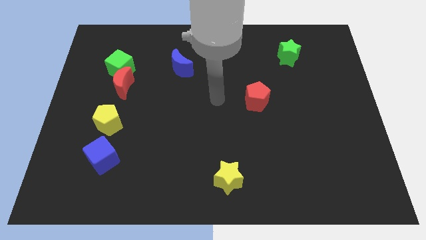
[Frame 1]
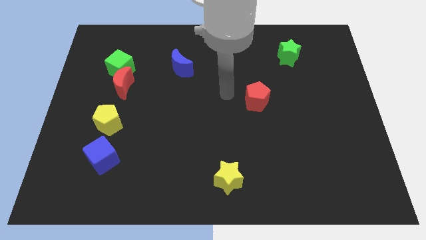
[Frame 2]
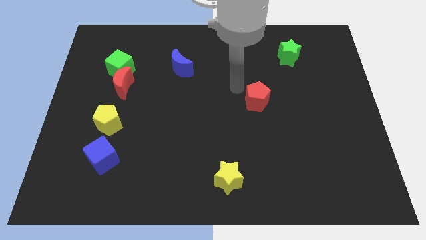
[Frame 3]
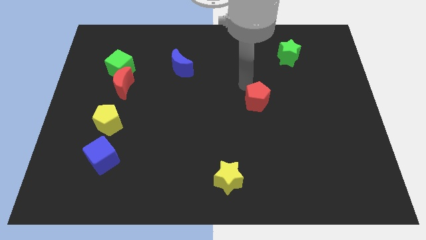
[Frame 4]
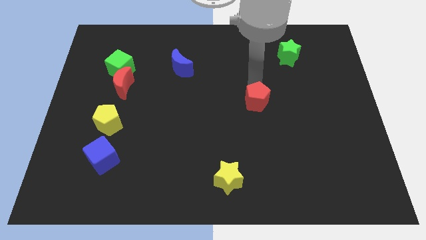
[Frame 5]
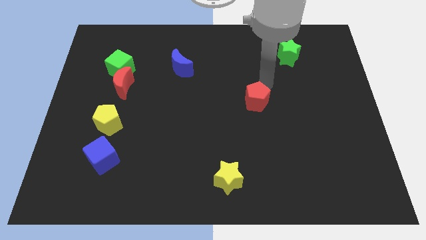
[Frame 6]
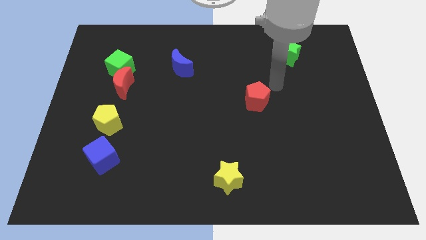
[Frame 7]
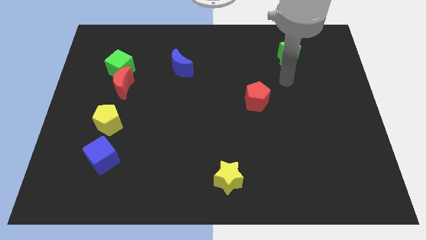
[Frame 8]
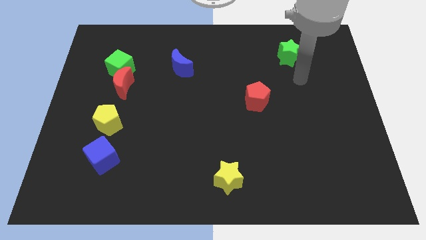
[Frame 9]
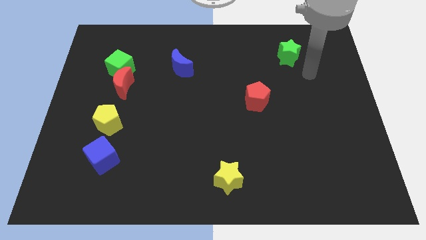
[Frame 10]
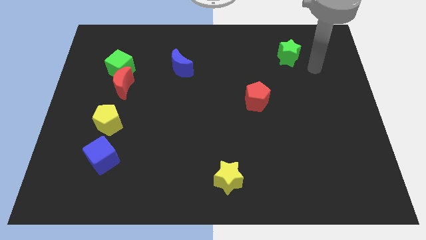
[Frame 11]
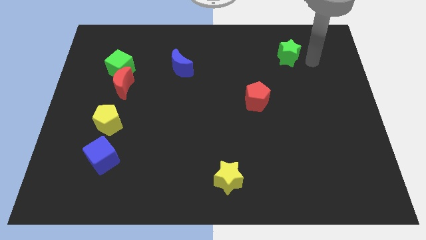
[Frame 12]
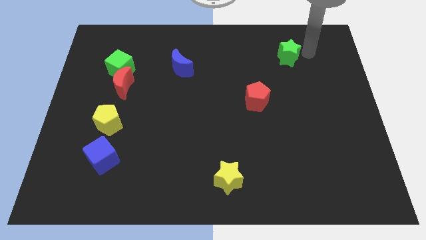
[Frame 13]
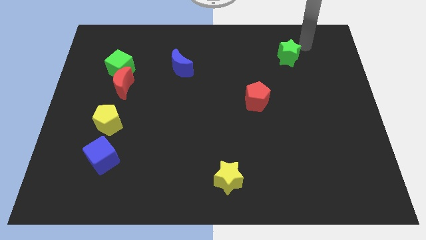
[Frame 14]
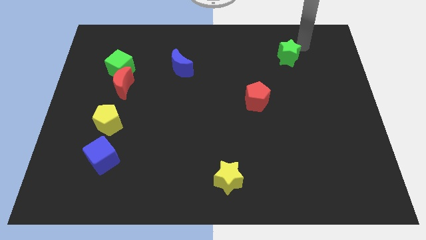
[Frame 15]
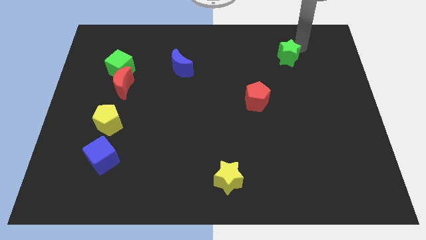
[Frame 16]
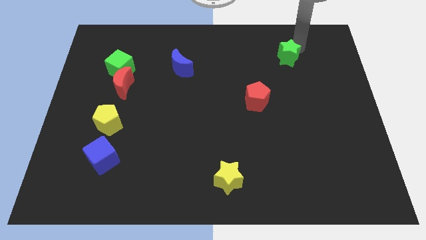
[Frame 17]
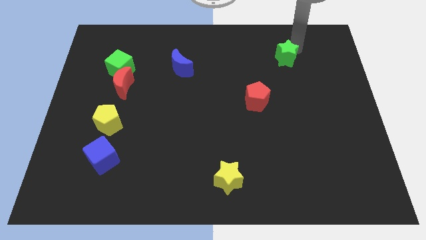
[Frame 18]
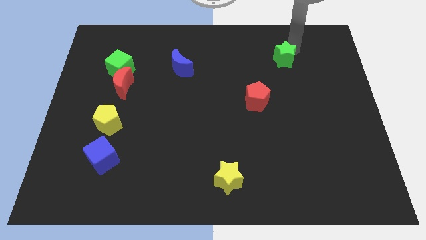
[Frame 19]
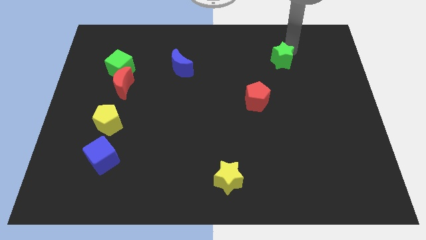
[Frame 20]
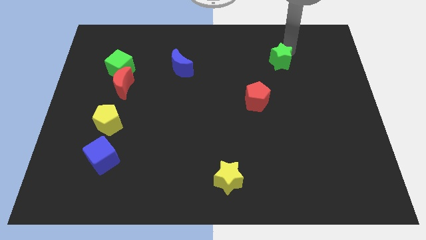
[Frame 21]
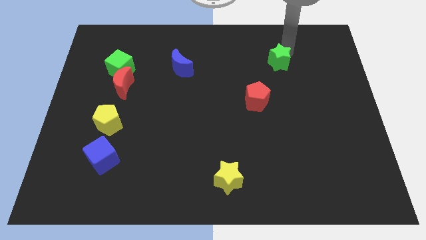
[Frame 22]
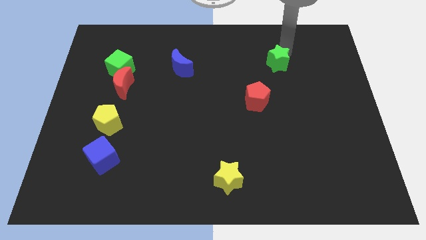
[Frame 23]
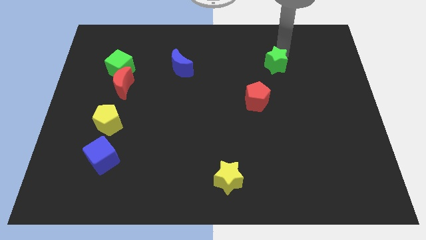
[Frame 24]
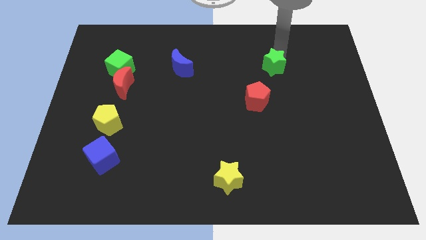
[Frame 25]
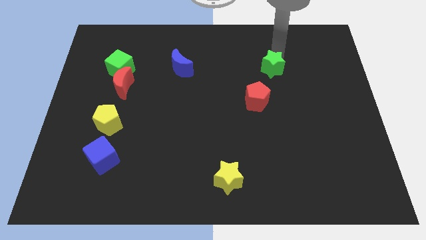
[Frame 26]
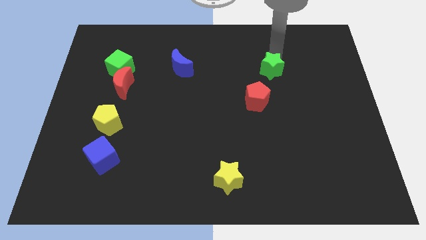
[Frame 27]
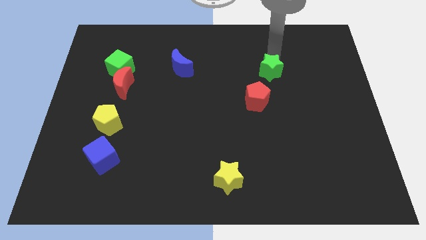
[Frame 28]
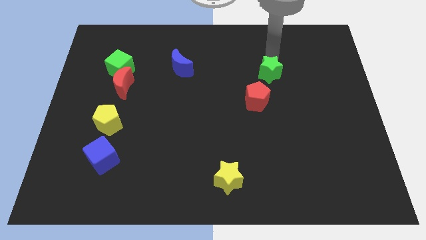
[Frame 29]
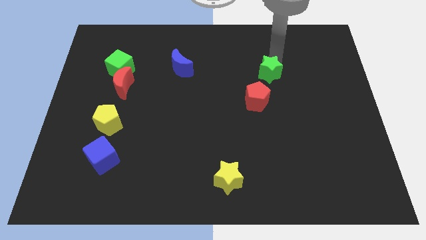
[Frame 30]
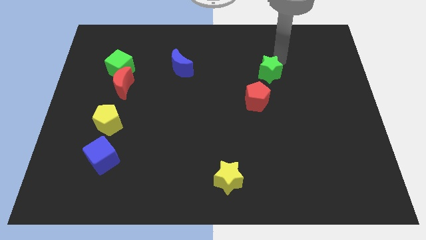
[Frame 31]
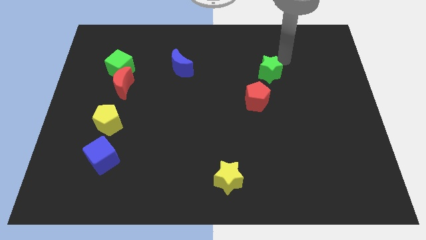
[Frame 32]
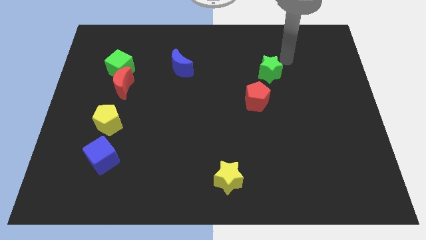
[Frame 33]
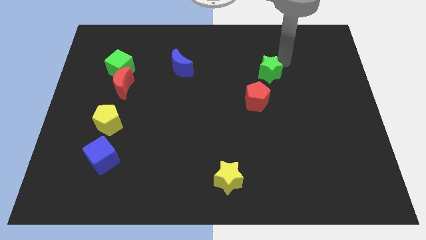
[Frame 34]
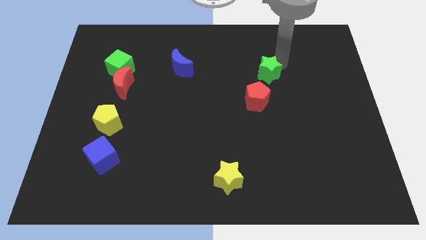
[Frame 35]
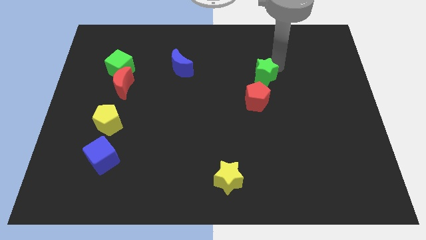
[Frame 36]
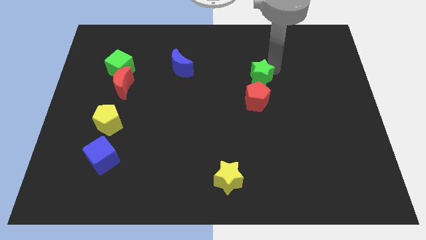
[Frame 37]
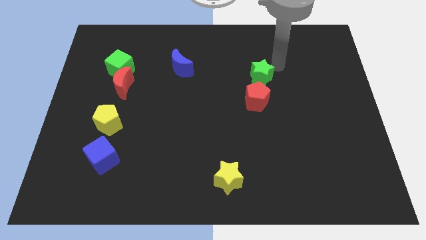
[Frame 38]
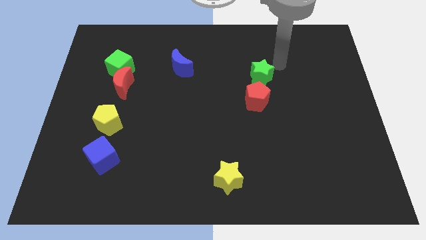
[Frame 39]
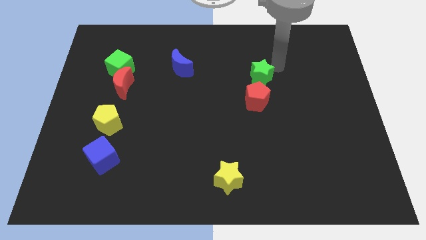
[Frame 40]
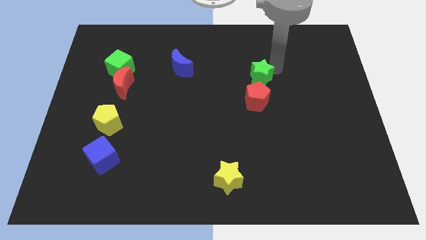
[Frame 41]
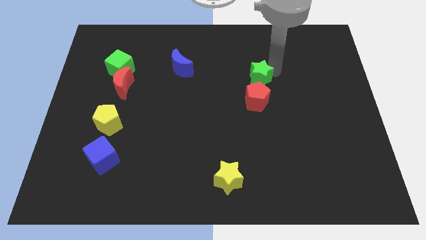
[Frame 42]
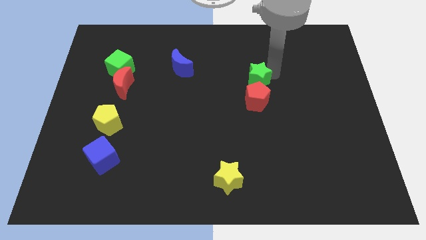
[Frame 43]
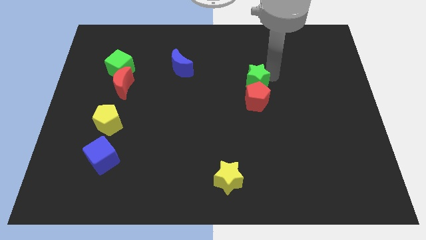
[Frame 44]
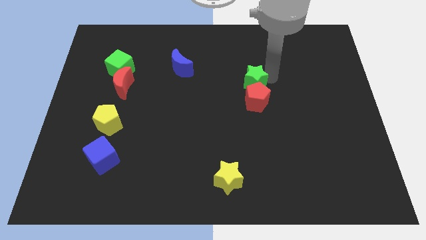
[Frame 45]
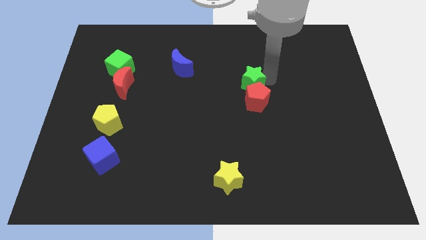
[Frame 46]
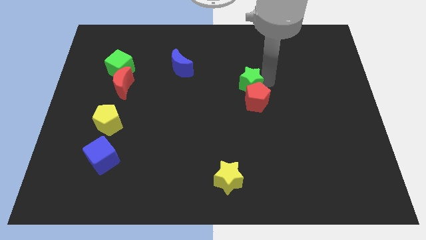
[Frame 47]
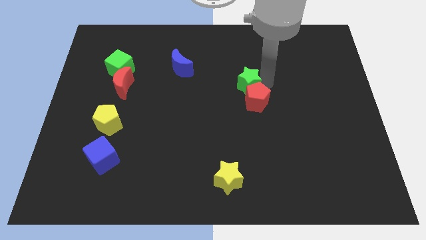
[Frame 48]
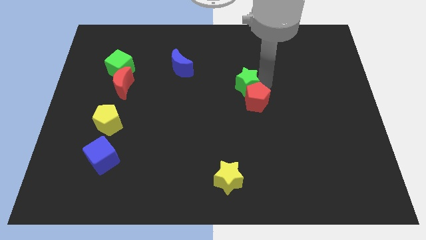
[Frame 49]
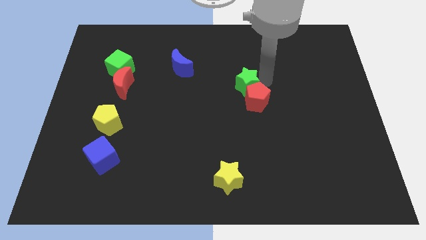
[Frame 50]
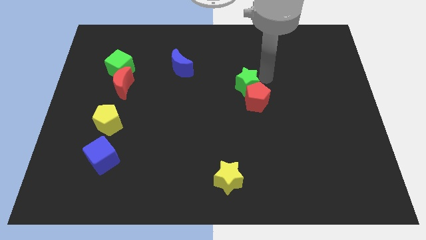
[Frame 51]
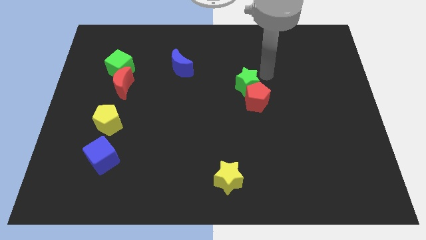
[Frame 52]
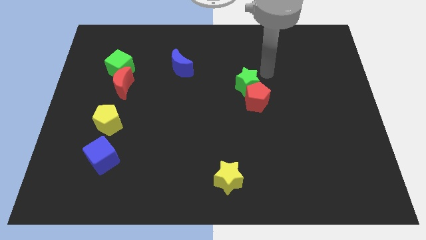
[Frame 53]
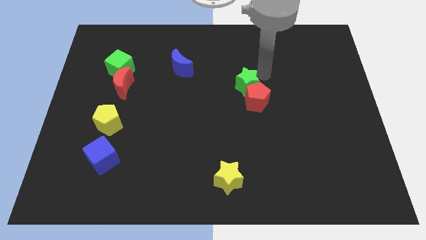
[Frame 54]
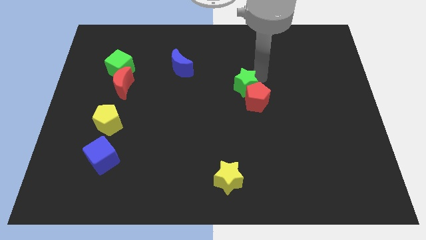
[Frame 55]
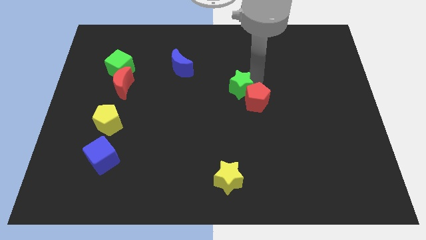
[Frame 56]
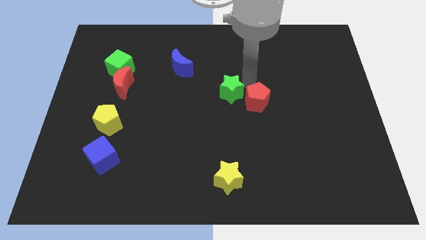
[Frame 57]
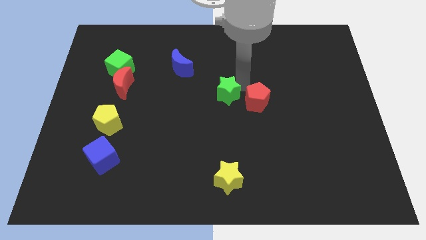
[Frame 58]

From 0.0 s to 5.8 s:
slide the green star down and to the left diagonally

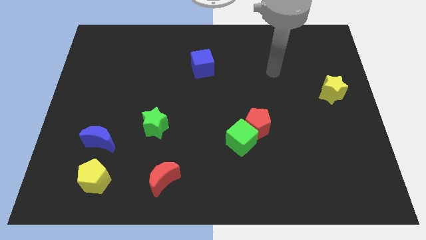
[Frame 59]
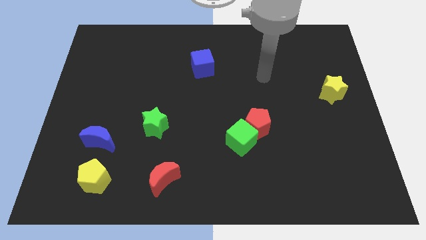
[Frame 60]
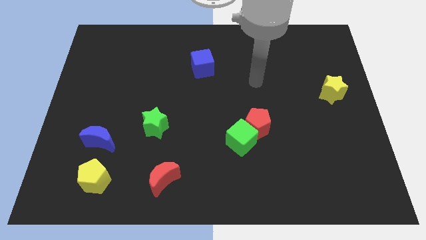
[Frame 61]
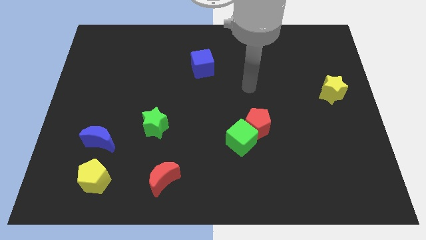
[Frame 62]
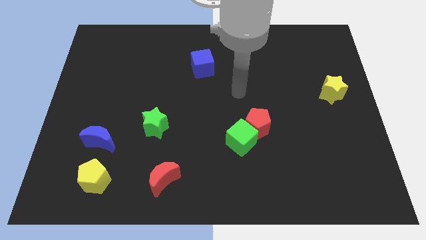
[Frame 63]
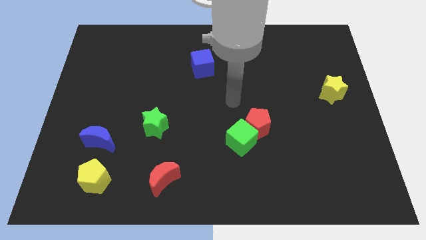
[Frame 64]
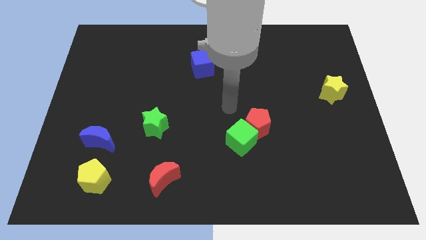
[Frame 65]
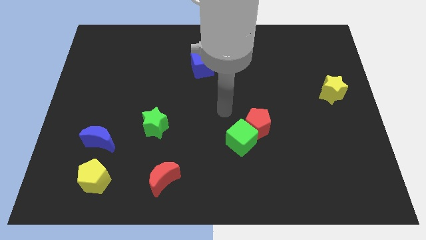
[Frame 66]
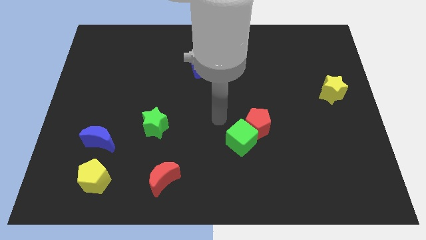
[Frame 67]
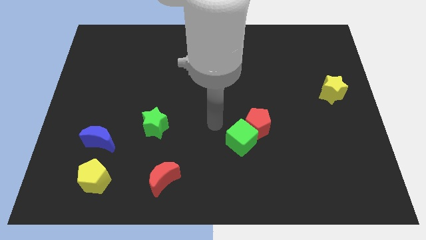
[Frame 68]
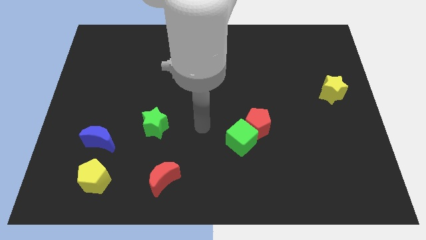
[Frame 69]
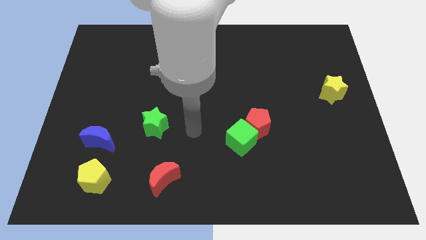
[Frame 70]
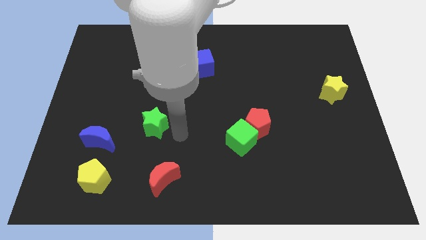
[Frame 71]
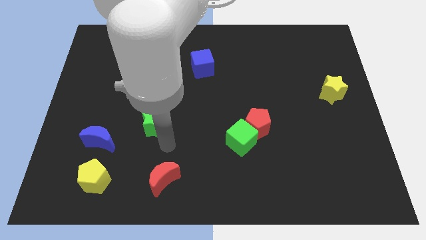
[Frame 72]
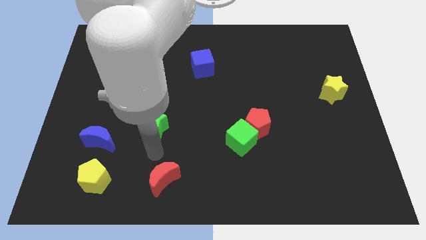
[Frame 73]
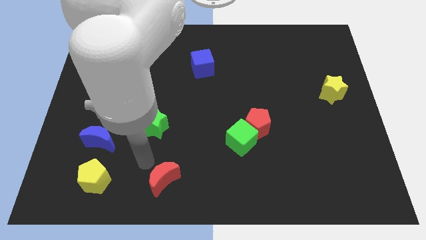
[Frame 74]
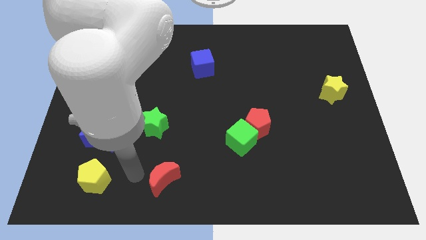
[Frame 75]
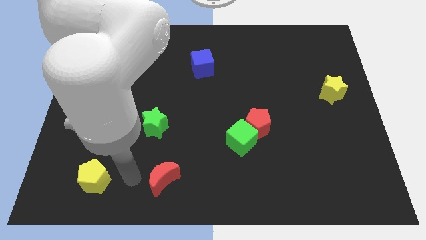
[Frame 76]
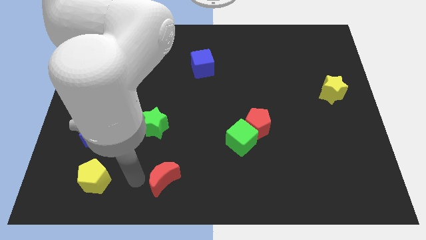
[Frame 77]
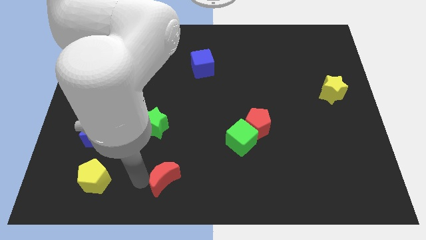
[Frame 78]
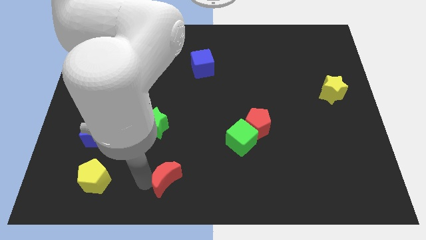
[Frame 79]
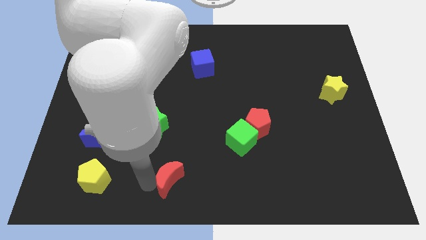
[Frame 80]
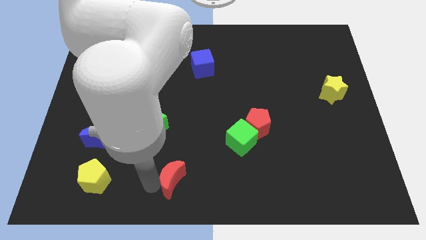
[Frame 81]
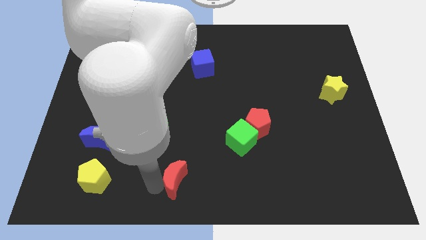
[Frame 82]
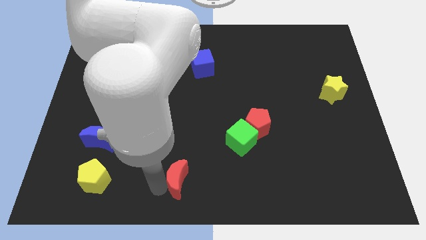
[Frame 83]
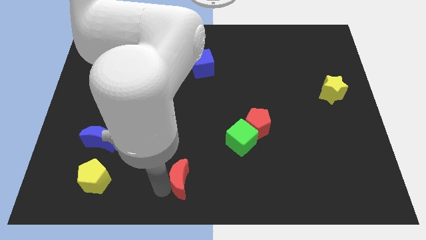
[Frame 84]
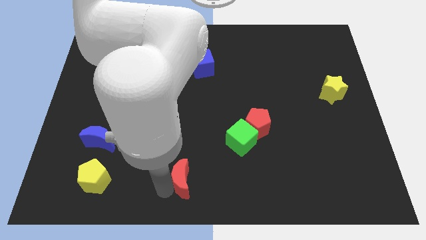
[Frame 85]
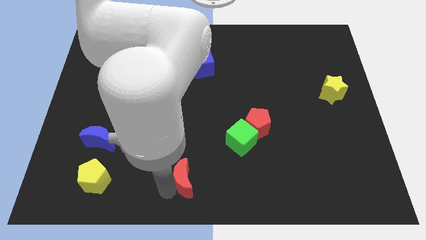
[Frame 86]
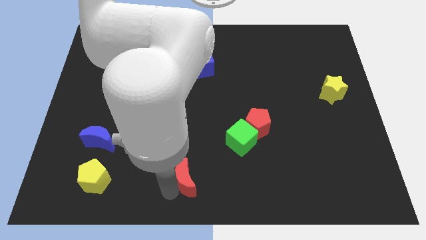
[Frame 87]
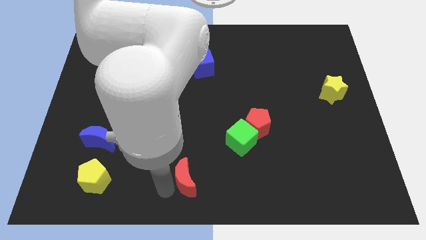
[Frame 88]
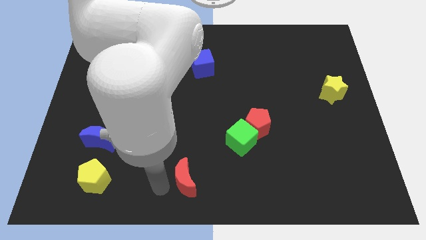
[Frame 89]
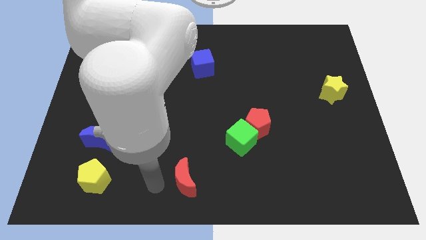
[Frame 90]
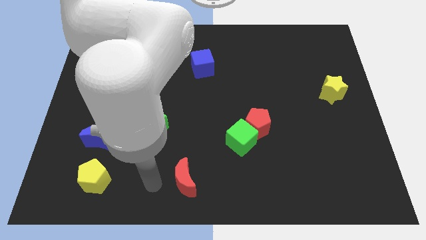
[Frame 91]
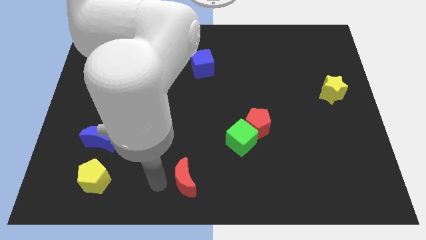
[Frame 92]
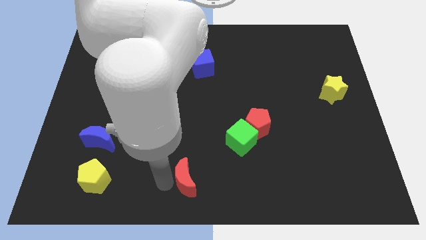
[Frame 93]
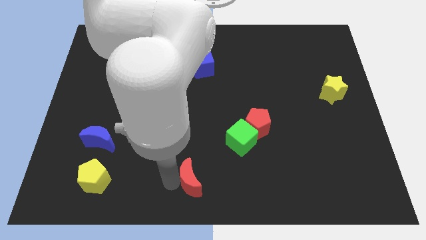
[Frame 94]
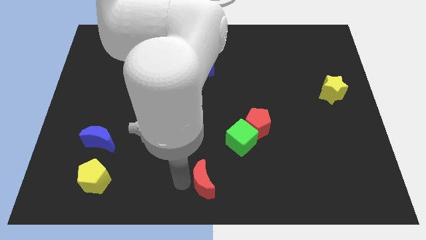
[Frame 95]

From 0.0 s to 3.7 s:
slightly move the red moon to the right
